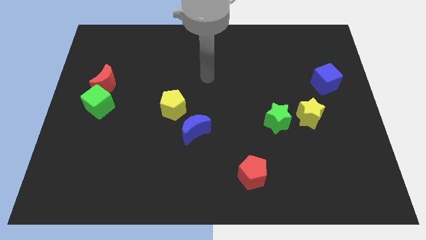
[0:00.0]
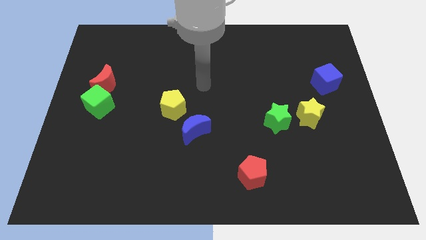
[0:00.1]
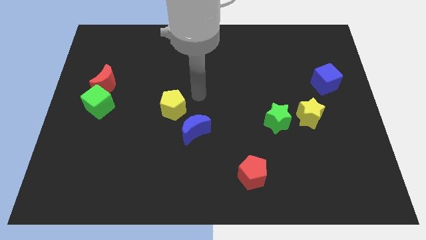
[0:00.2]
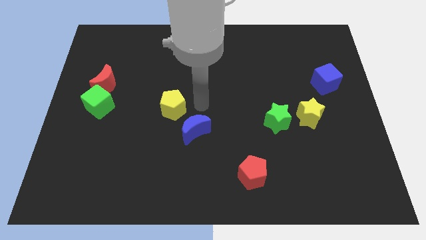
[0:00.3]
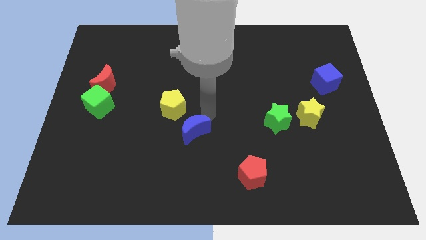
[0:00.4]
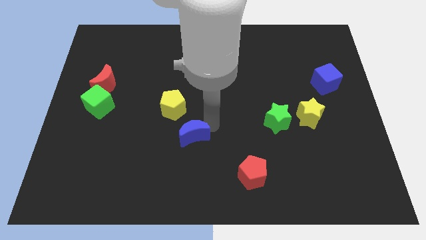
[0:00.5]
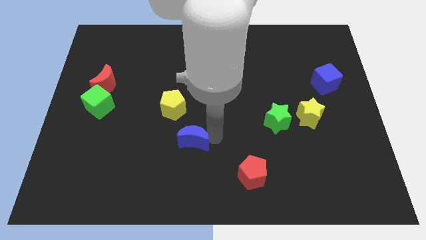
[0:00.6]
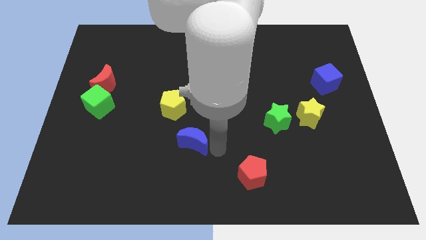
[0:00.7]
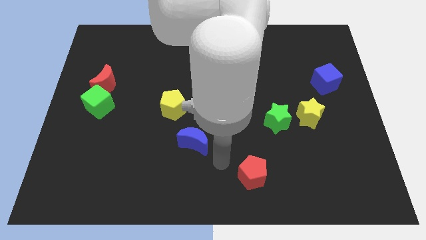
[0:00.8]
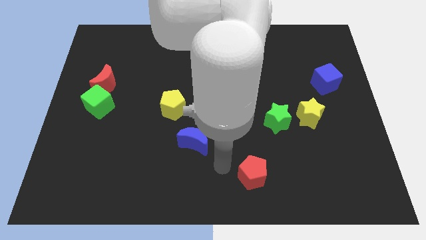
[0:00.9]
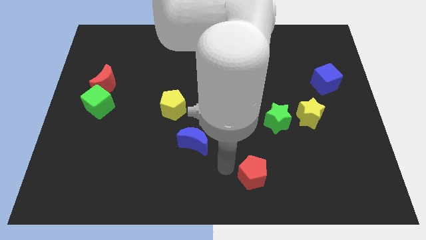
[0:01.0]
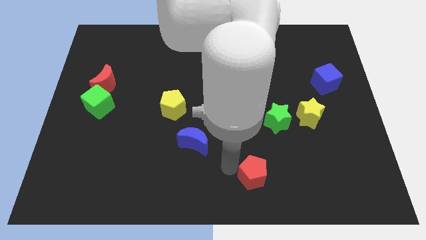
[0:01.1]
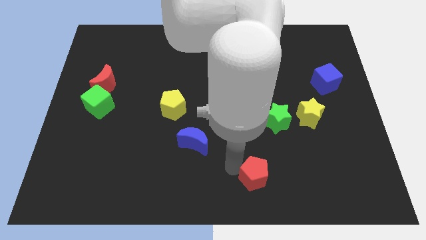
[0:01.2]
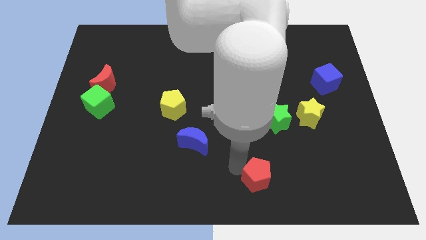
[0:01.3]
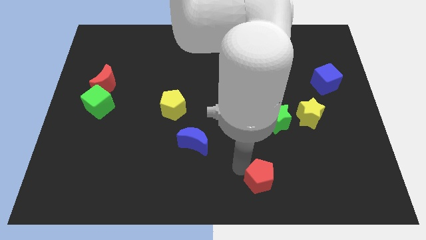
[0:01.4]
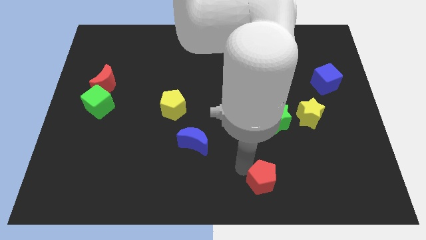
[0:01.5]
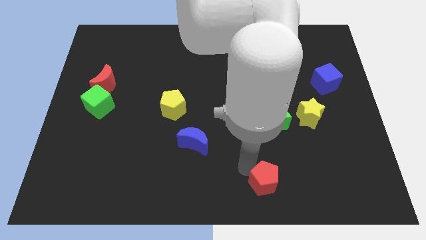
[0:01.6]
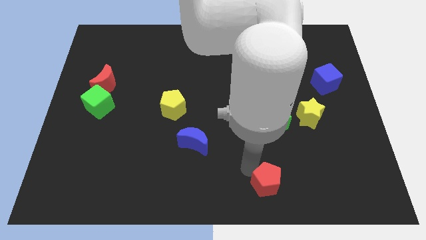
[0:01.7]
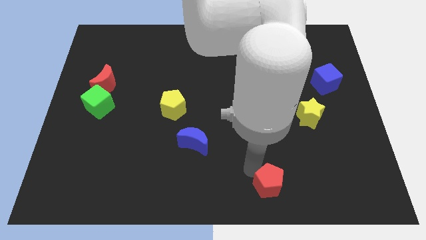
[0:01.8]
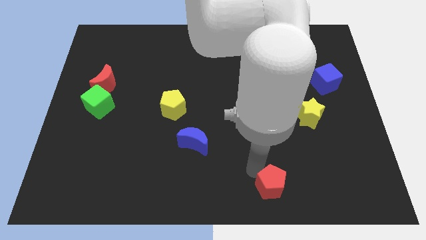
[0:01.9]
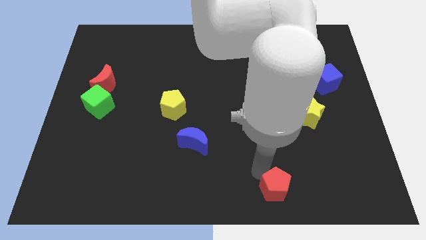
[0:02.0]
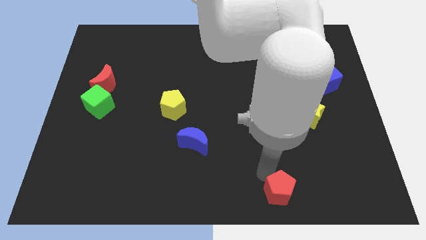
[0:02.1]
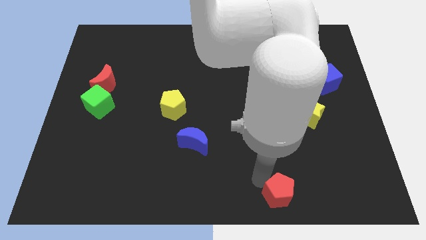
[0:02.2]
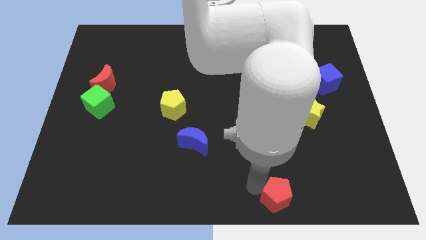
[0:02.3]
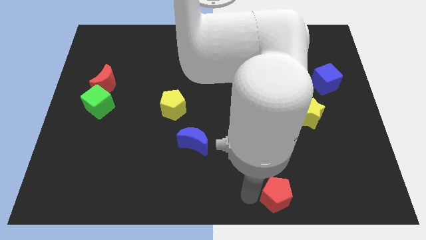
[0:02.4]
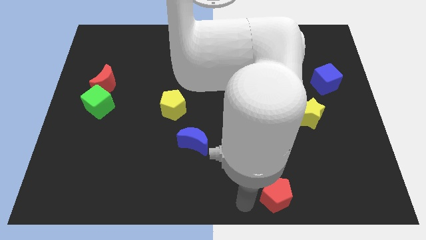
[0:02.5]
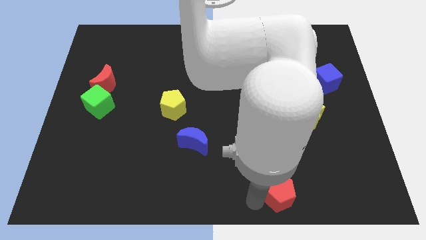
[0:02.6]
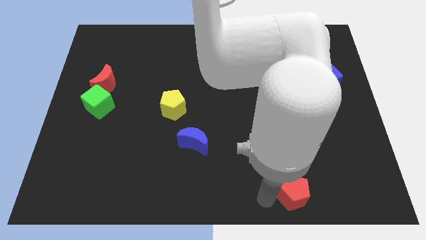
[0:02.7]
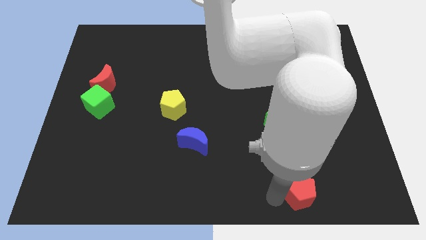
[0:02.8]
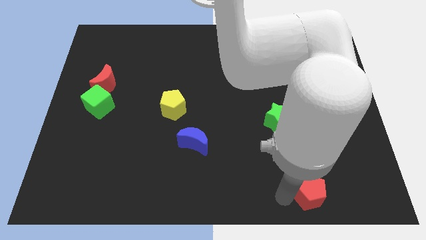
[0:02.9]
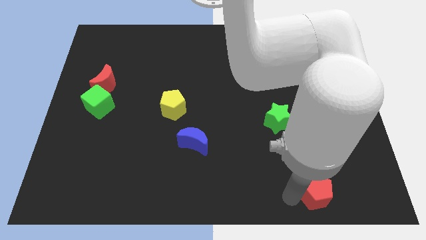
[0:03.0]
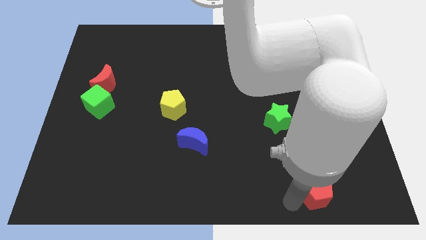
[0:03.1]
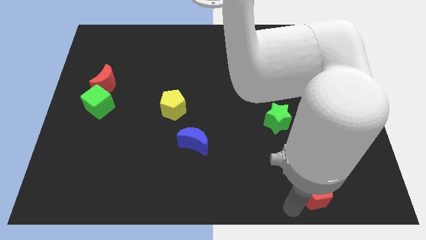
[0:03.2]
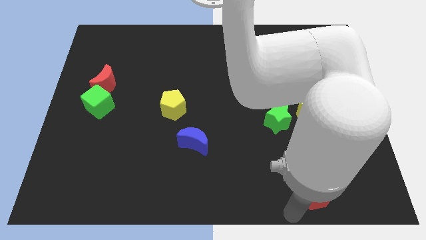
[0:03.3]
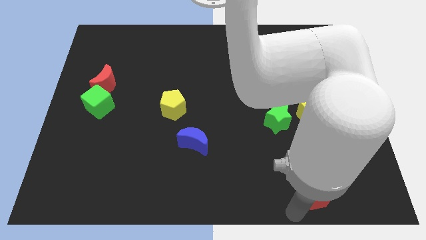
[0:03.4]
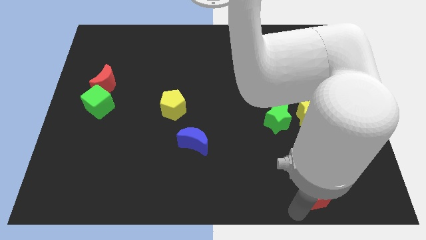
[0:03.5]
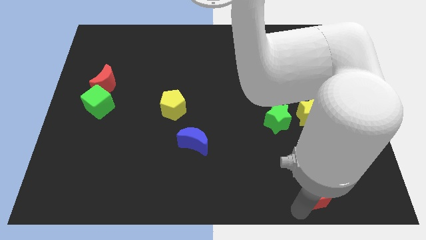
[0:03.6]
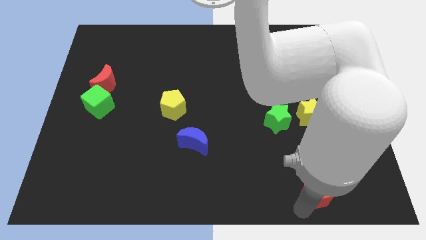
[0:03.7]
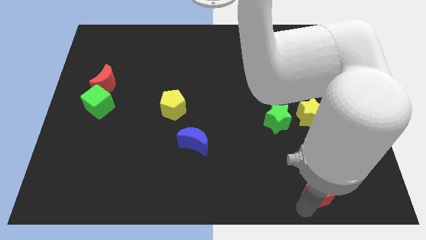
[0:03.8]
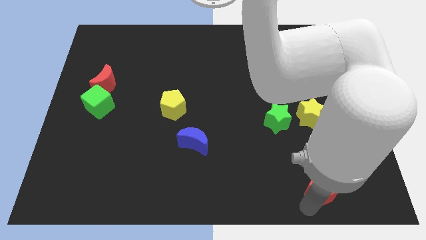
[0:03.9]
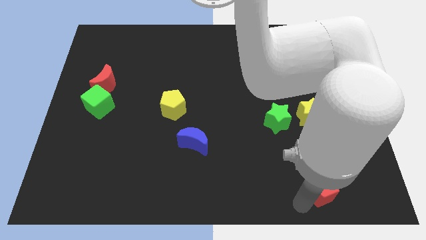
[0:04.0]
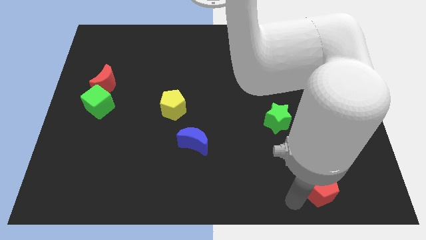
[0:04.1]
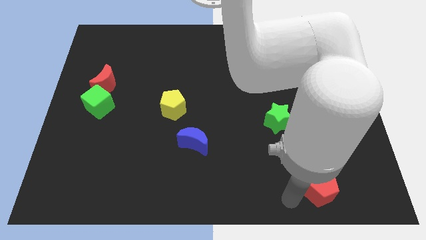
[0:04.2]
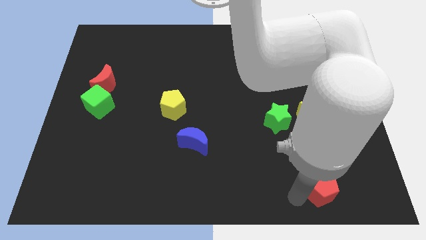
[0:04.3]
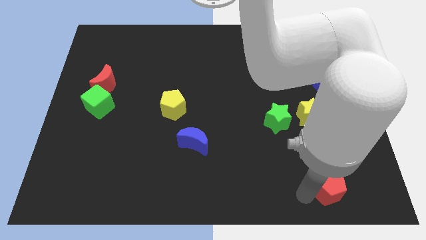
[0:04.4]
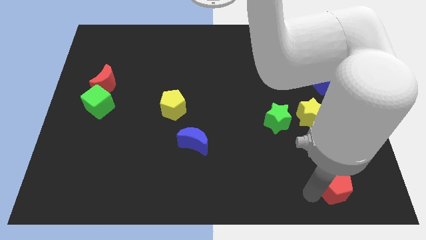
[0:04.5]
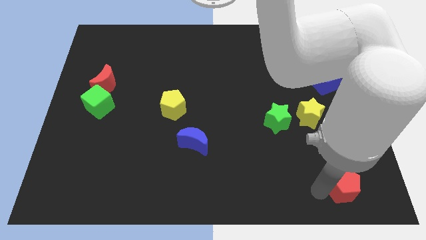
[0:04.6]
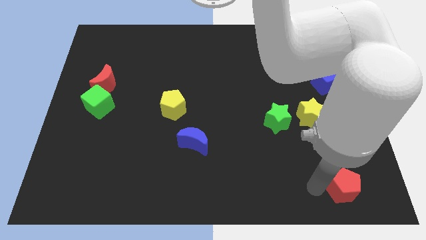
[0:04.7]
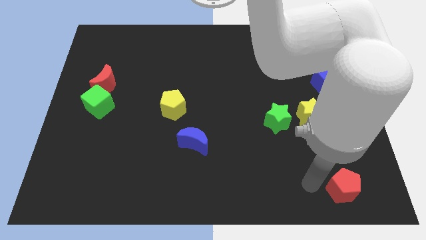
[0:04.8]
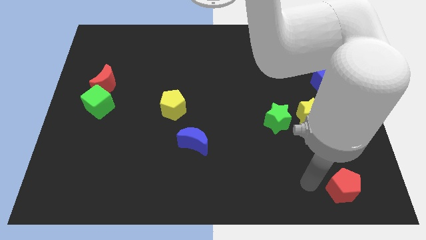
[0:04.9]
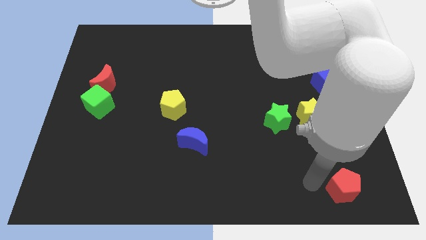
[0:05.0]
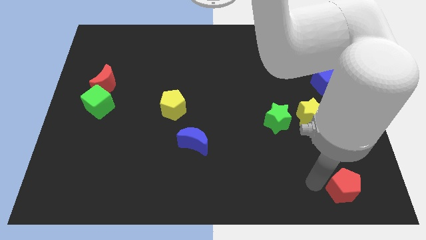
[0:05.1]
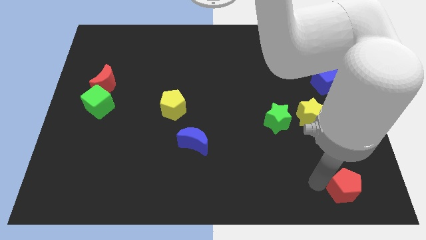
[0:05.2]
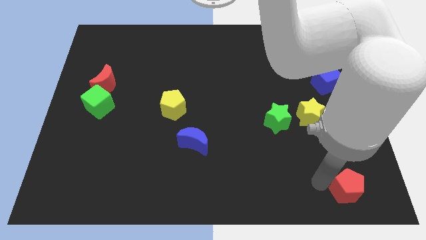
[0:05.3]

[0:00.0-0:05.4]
put the red pentagon to the lower right corner

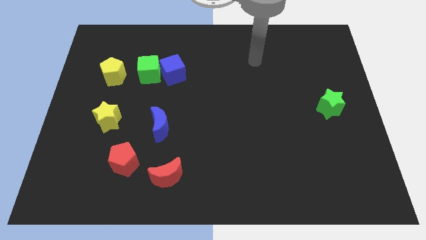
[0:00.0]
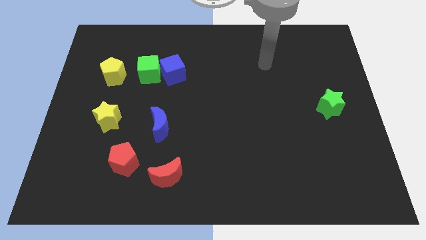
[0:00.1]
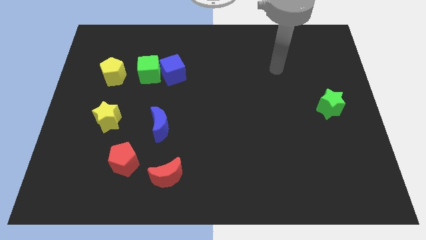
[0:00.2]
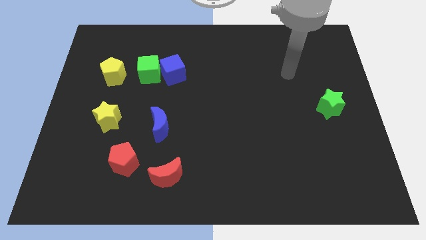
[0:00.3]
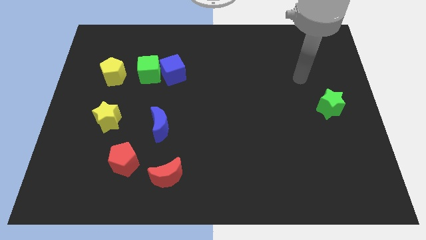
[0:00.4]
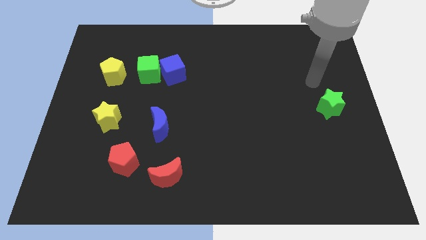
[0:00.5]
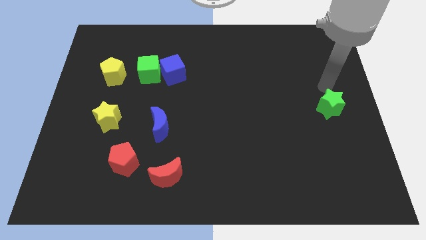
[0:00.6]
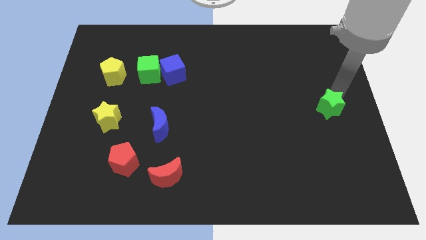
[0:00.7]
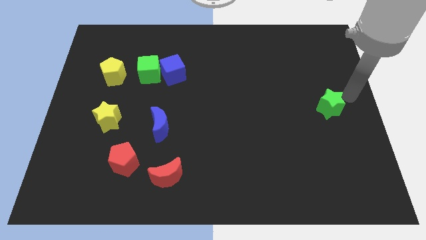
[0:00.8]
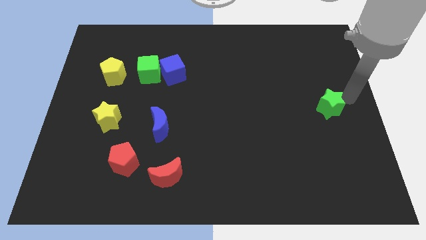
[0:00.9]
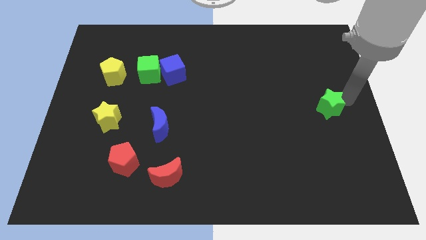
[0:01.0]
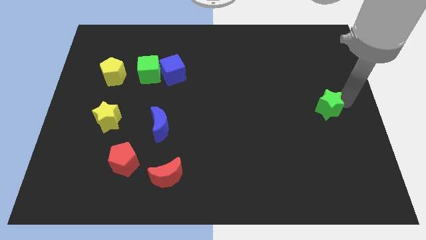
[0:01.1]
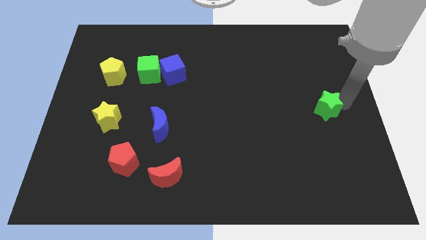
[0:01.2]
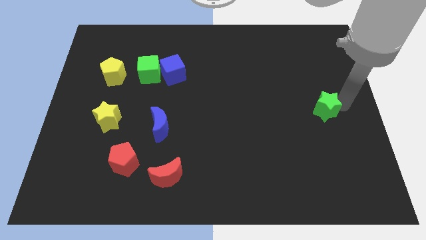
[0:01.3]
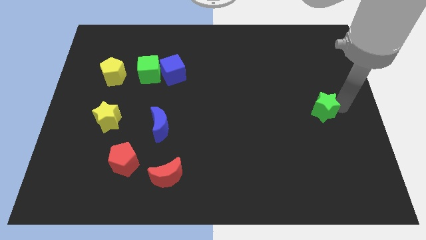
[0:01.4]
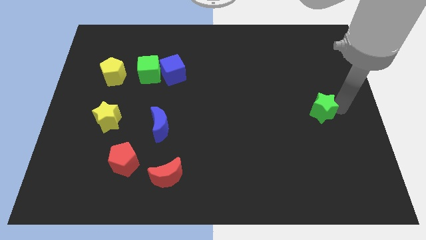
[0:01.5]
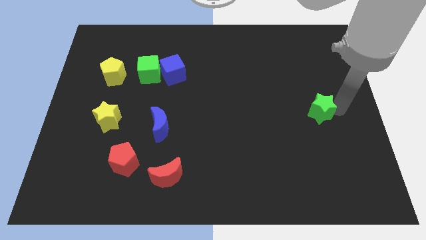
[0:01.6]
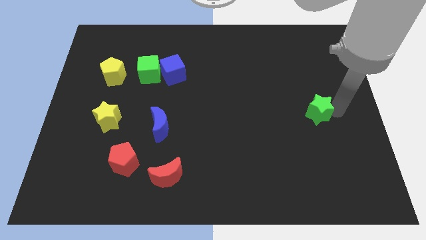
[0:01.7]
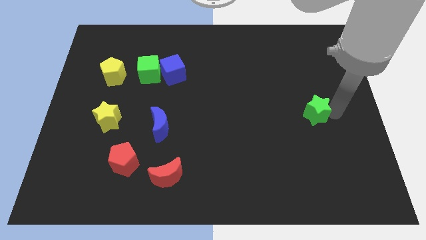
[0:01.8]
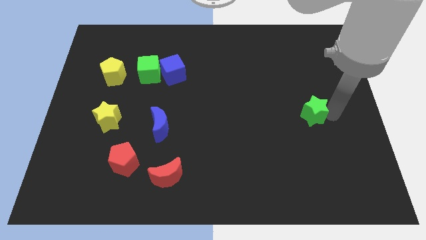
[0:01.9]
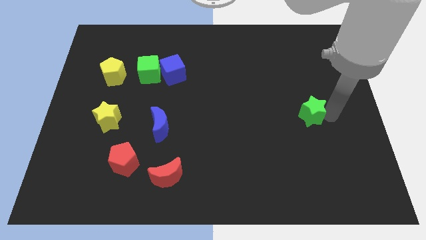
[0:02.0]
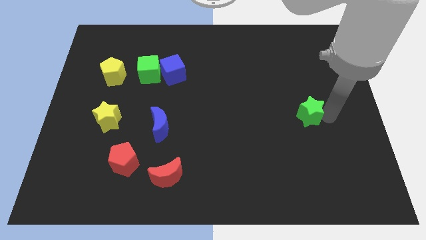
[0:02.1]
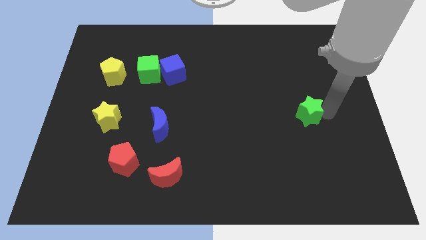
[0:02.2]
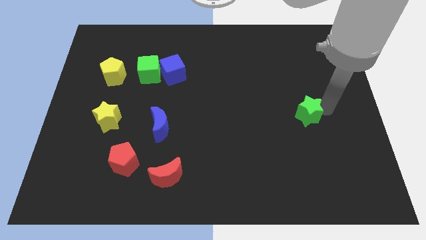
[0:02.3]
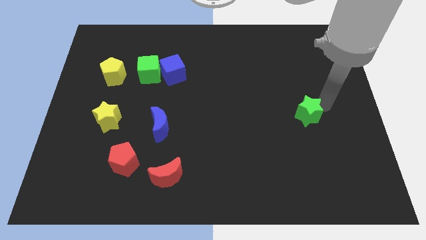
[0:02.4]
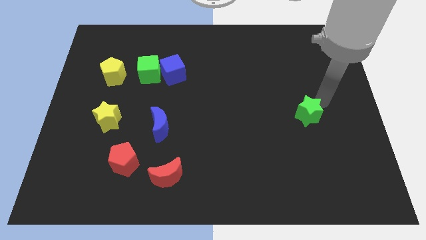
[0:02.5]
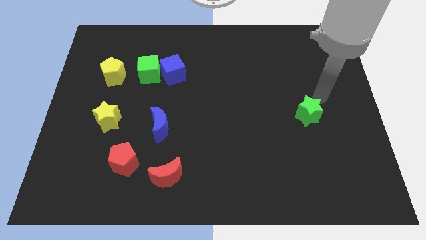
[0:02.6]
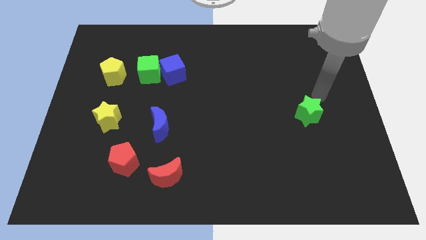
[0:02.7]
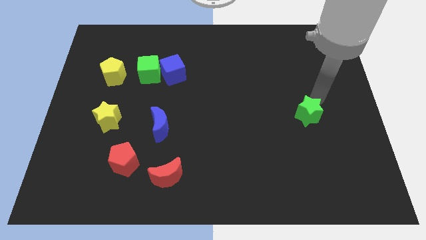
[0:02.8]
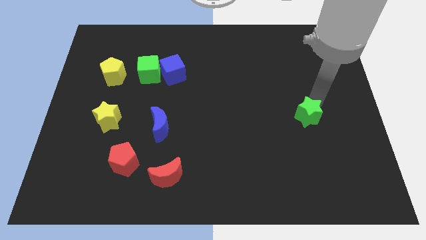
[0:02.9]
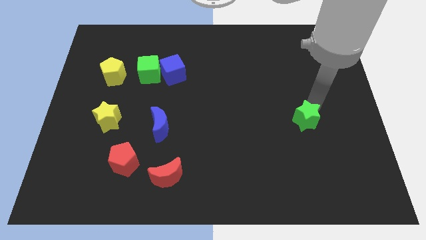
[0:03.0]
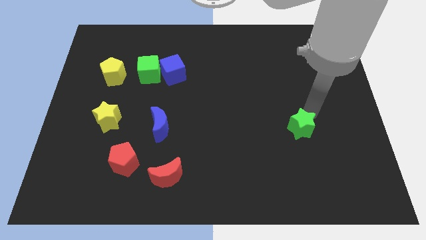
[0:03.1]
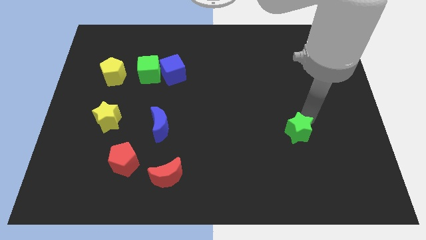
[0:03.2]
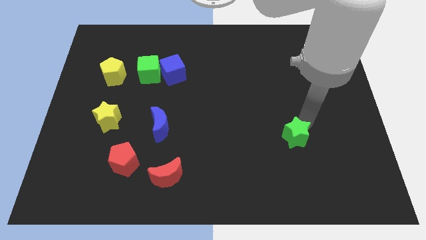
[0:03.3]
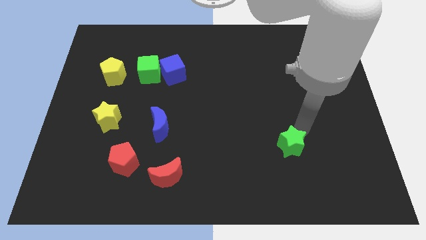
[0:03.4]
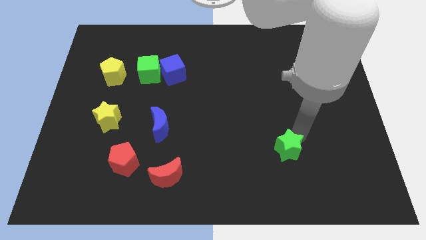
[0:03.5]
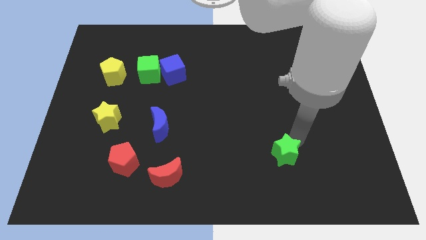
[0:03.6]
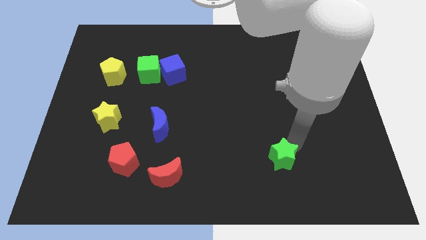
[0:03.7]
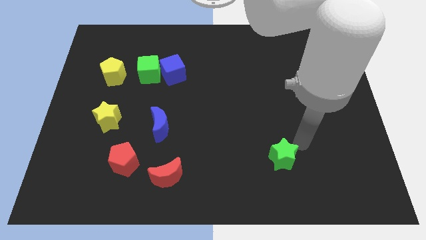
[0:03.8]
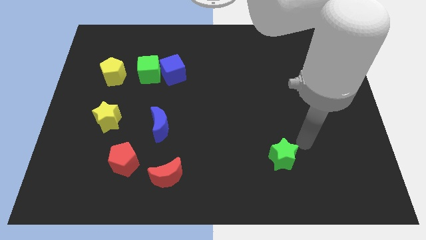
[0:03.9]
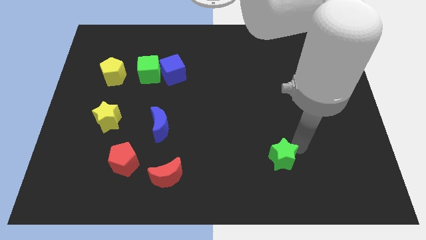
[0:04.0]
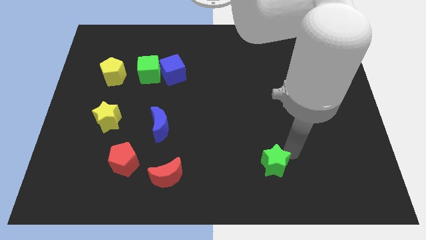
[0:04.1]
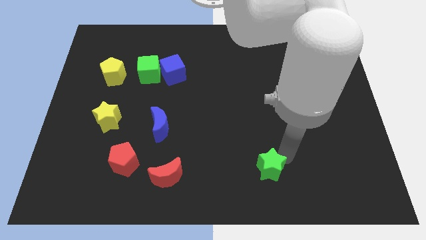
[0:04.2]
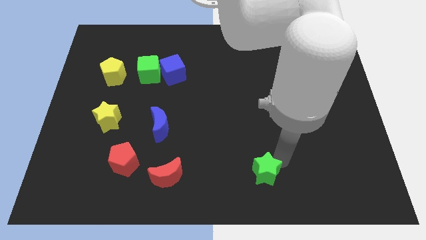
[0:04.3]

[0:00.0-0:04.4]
put the green star to the bottom side
